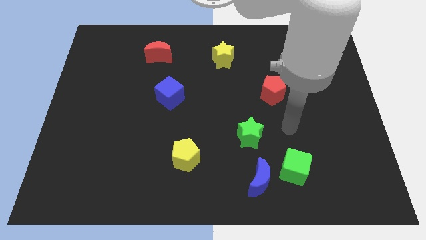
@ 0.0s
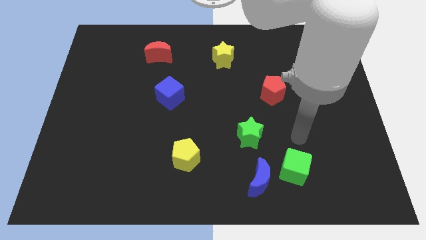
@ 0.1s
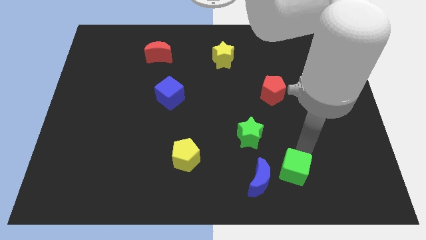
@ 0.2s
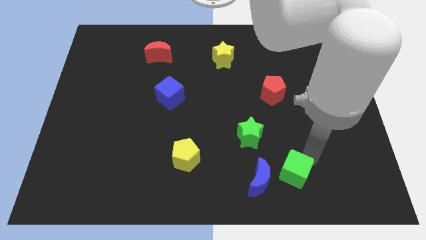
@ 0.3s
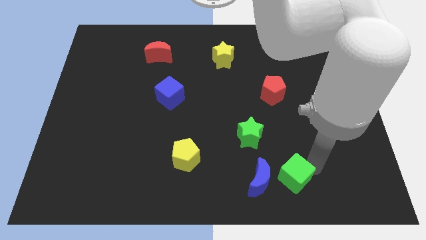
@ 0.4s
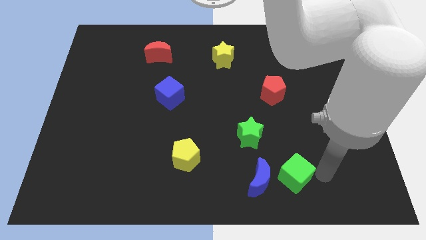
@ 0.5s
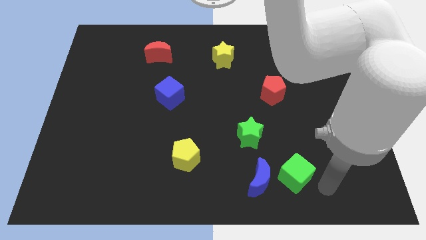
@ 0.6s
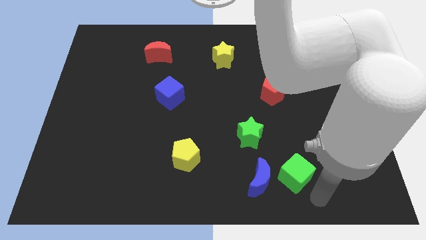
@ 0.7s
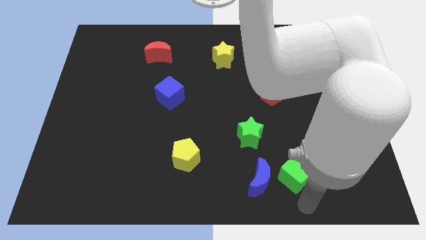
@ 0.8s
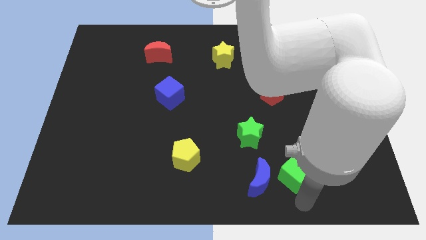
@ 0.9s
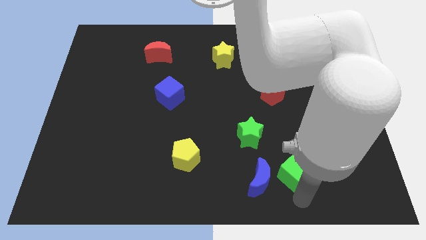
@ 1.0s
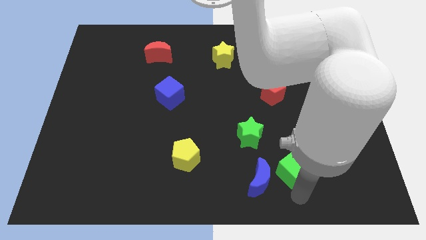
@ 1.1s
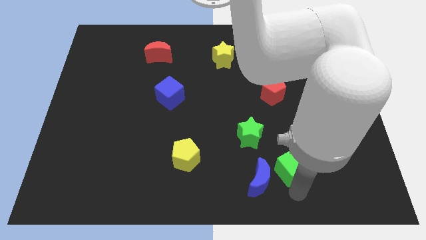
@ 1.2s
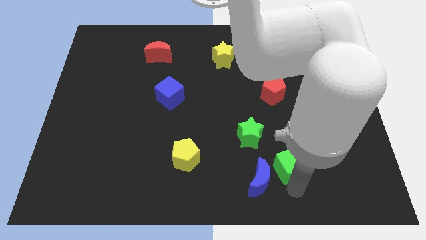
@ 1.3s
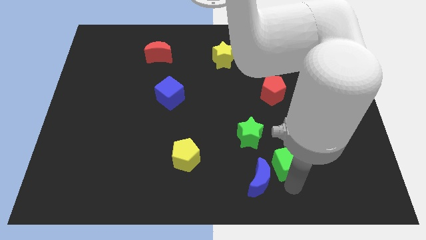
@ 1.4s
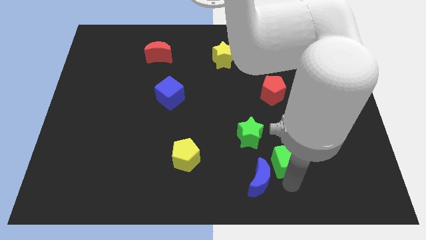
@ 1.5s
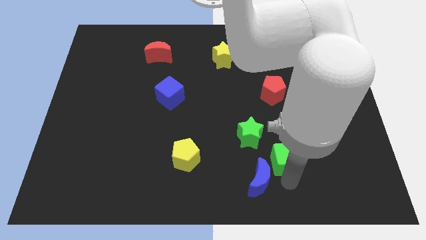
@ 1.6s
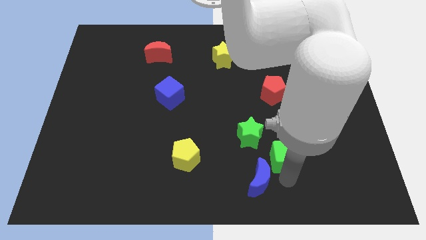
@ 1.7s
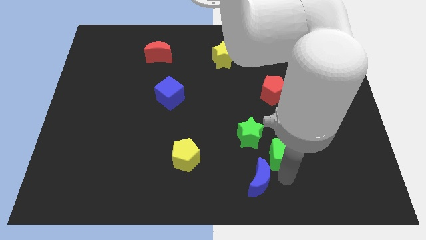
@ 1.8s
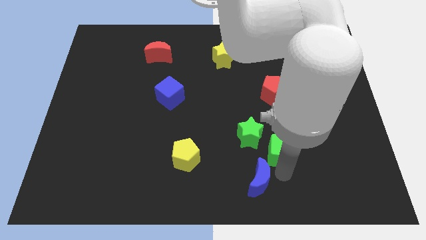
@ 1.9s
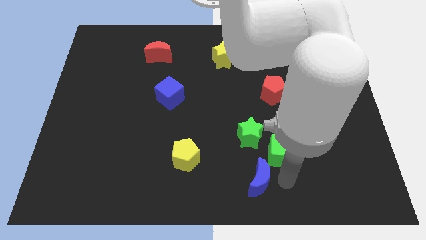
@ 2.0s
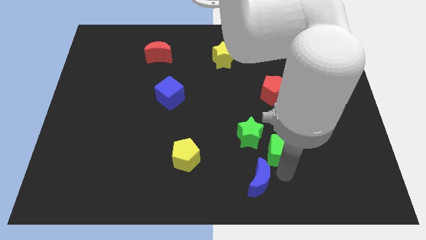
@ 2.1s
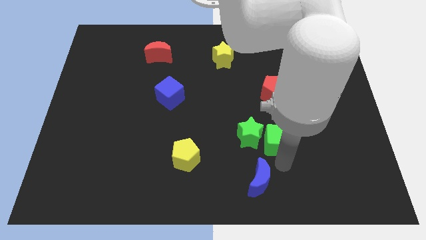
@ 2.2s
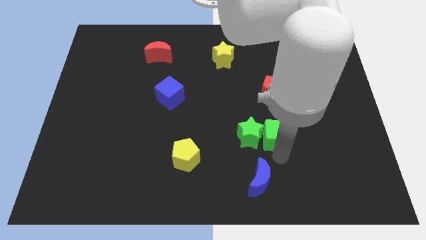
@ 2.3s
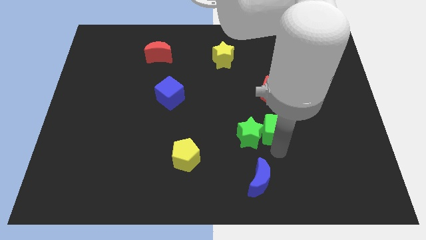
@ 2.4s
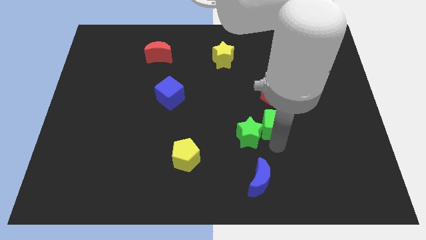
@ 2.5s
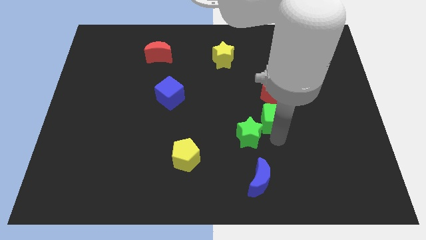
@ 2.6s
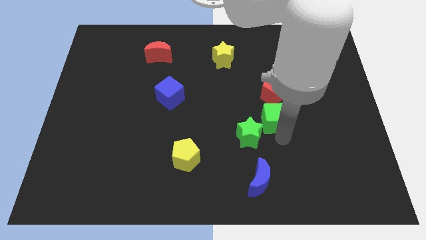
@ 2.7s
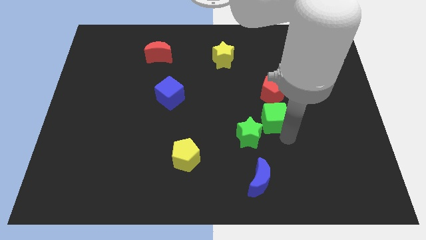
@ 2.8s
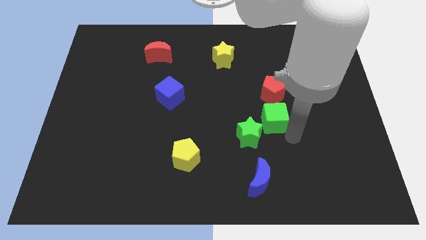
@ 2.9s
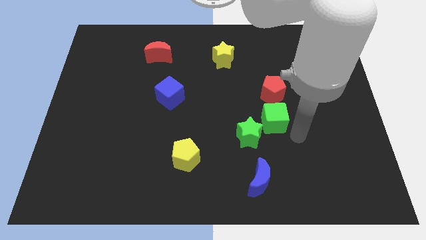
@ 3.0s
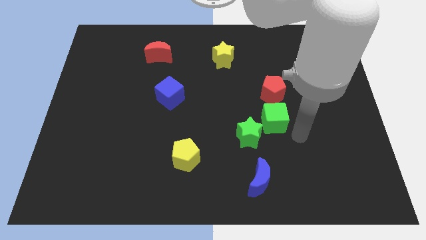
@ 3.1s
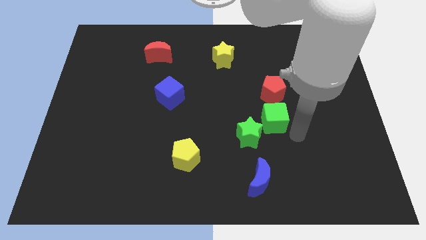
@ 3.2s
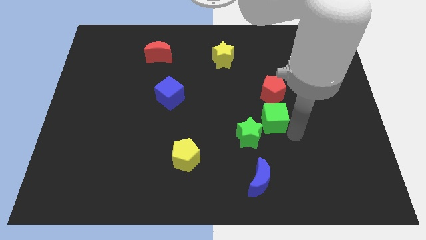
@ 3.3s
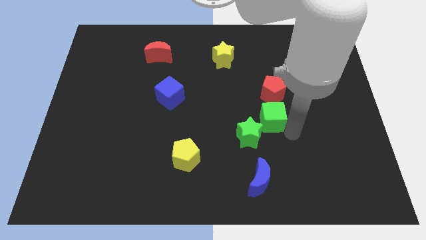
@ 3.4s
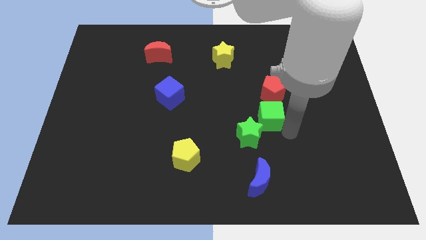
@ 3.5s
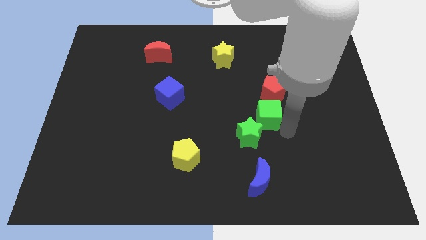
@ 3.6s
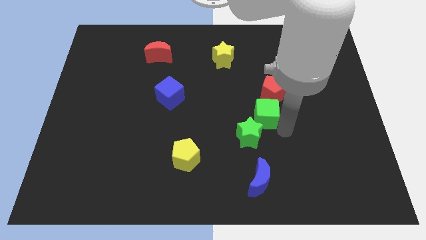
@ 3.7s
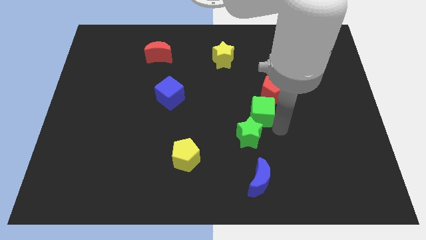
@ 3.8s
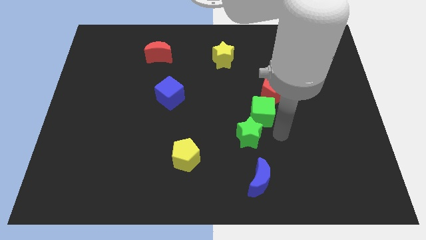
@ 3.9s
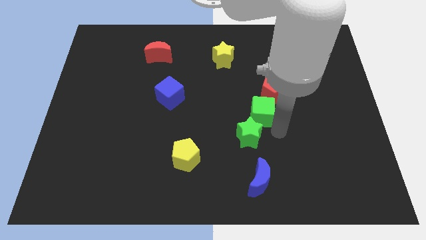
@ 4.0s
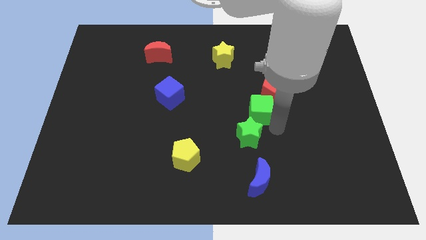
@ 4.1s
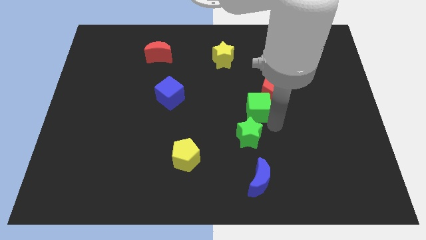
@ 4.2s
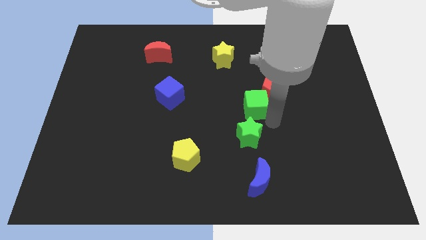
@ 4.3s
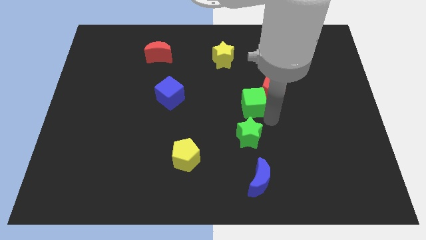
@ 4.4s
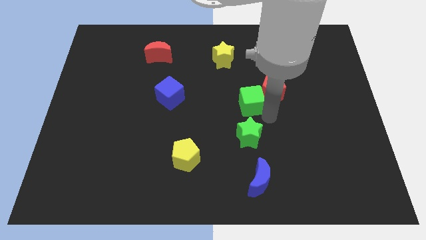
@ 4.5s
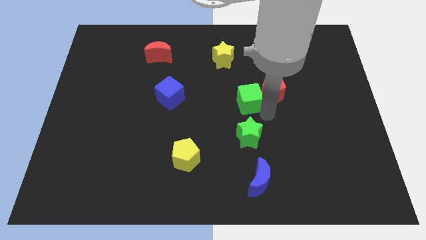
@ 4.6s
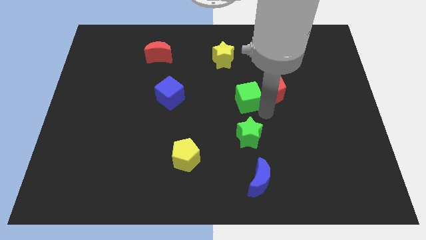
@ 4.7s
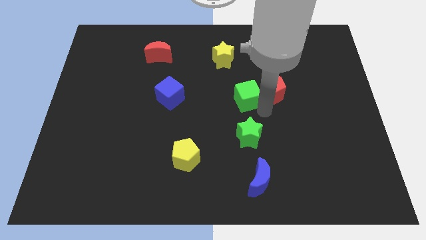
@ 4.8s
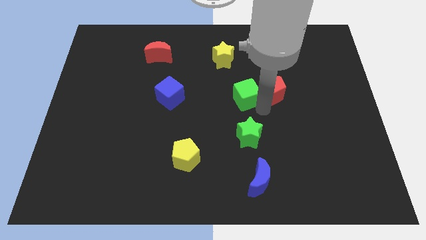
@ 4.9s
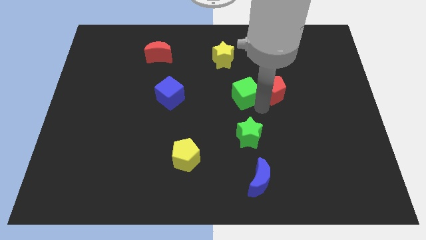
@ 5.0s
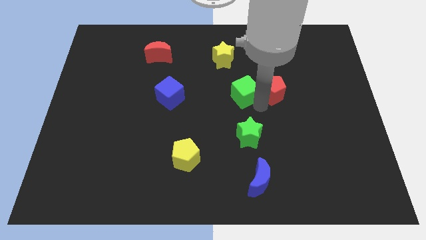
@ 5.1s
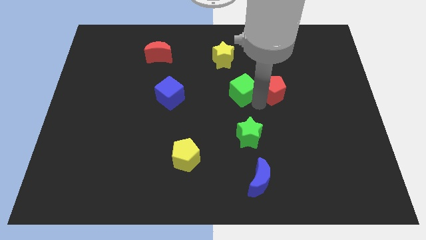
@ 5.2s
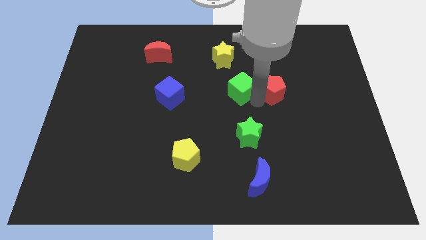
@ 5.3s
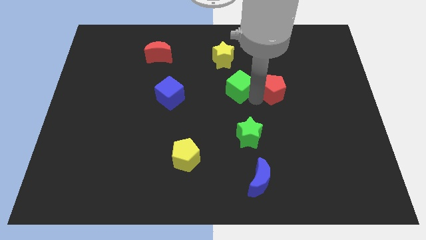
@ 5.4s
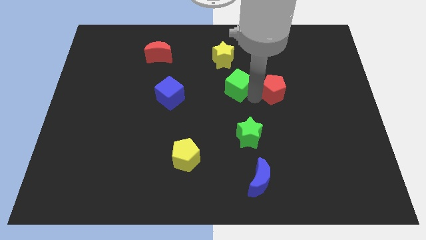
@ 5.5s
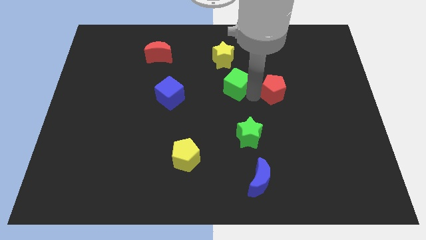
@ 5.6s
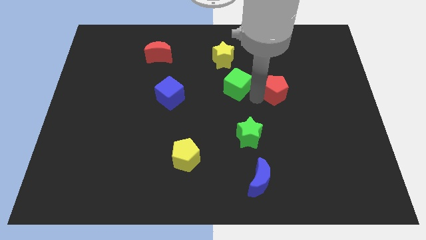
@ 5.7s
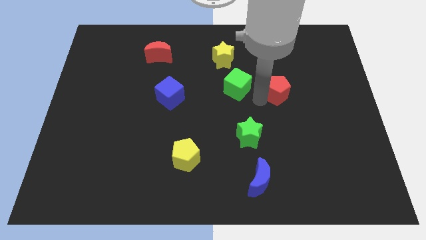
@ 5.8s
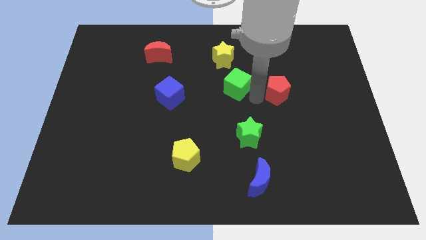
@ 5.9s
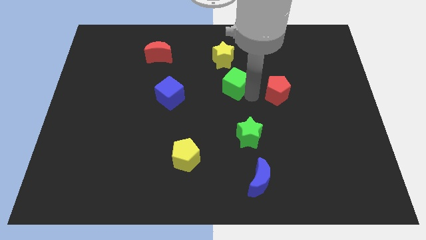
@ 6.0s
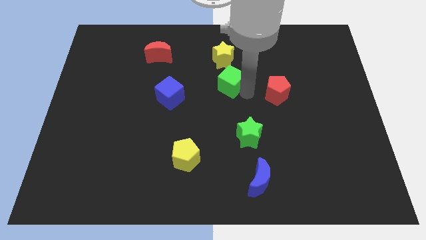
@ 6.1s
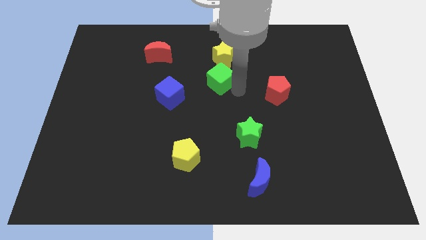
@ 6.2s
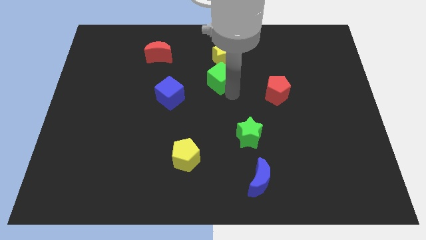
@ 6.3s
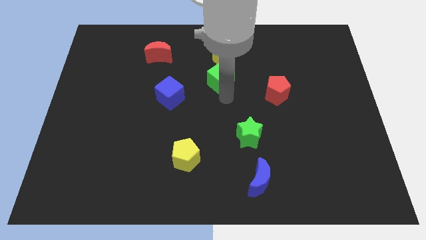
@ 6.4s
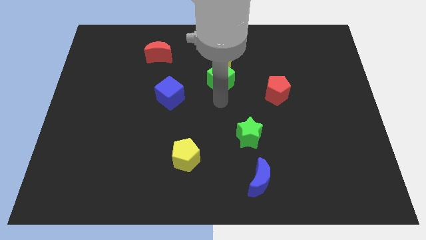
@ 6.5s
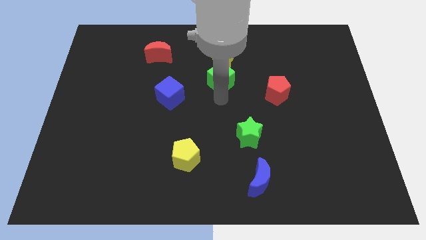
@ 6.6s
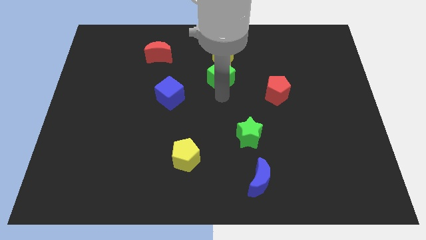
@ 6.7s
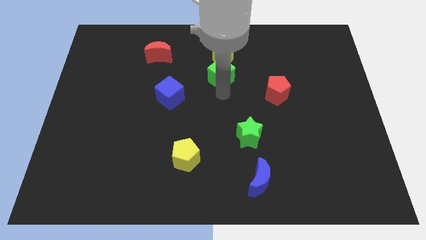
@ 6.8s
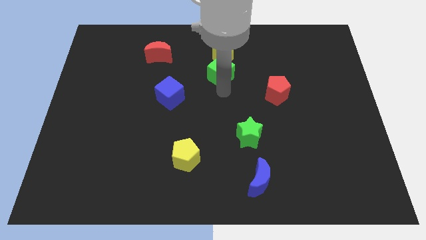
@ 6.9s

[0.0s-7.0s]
slide the green cube close to the yellow star

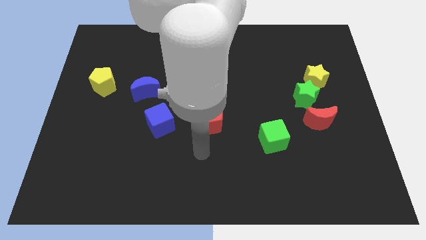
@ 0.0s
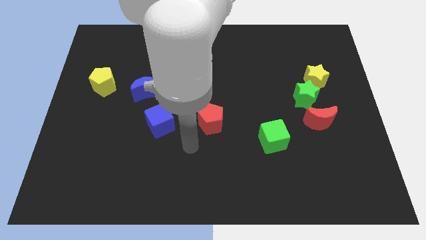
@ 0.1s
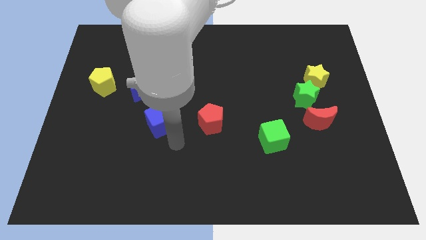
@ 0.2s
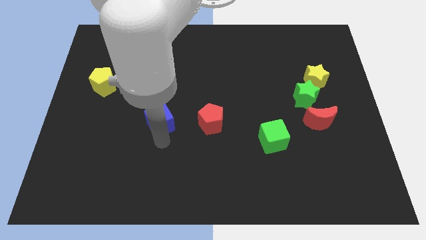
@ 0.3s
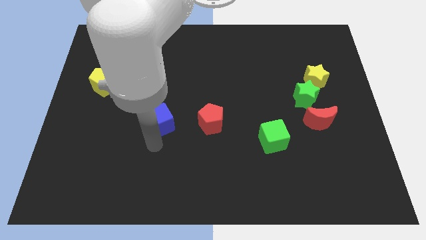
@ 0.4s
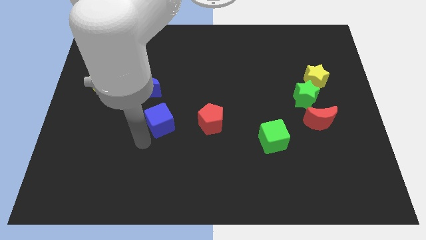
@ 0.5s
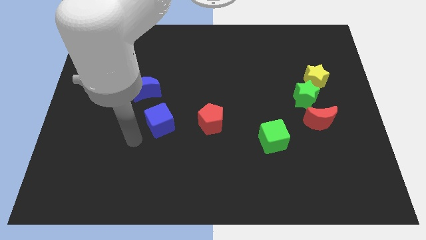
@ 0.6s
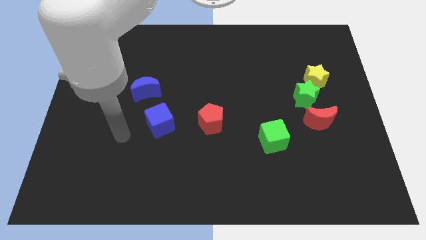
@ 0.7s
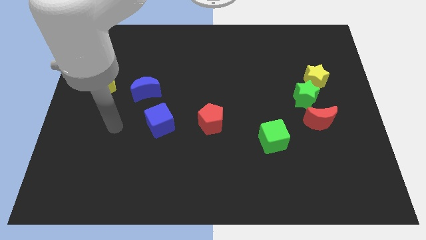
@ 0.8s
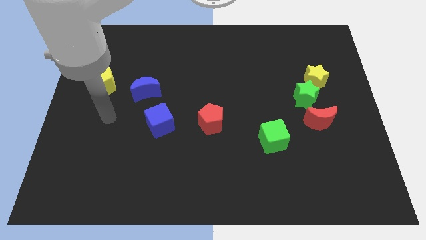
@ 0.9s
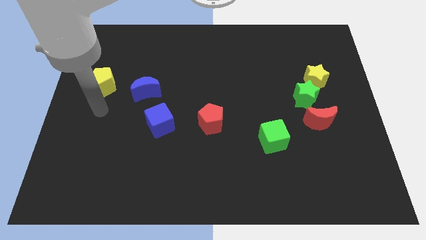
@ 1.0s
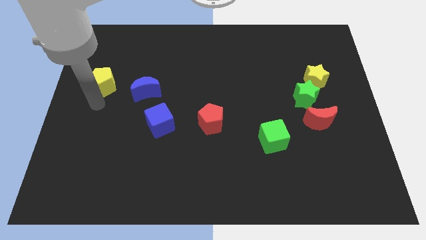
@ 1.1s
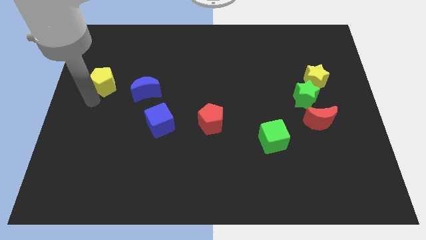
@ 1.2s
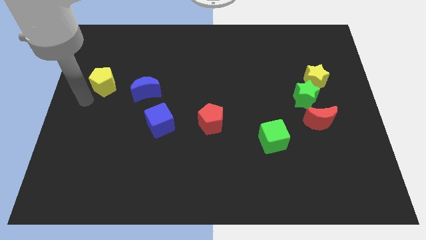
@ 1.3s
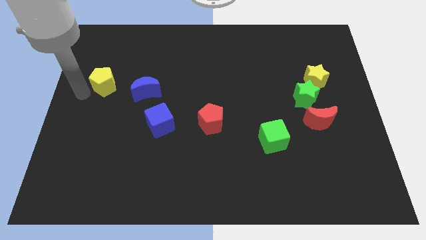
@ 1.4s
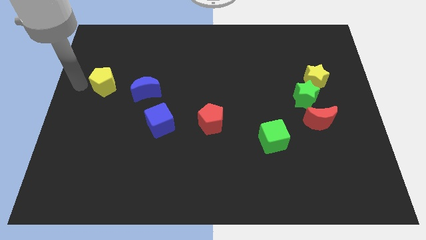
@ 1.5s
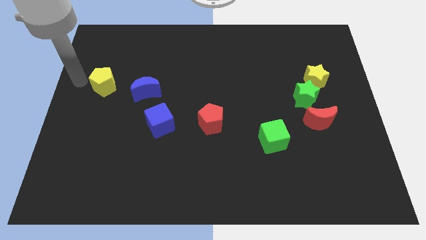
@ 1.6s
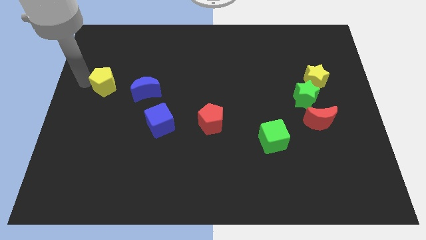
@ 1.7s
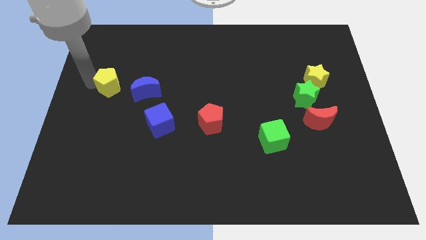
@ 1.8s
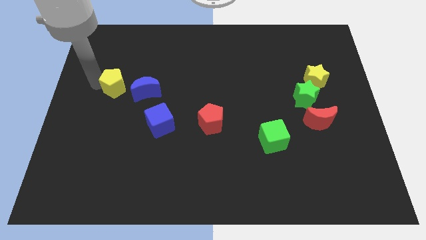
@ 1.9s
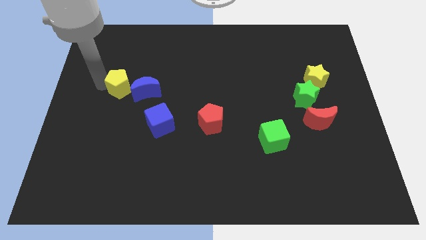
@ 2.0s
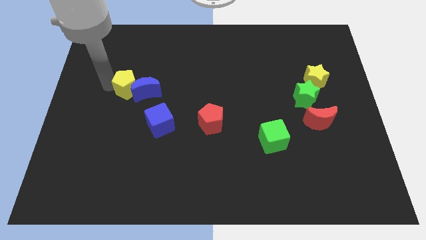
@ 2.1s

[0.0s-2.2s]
push the yellow pentagon next to the blue moon
